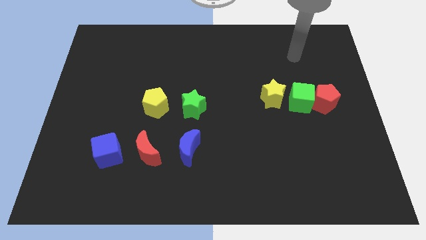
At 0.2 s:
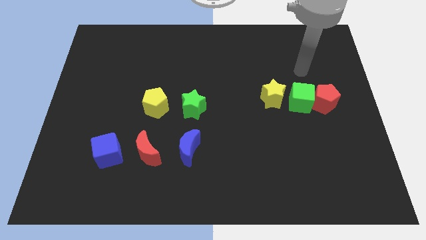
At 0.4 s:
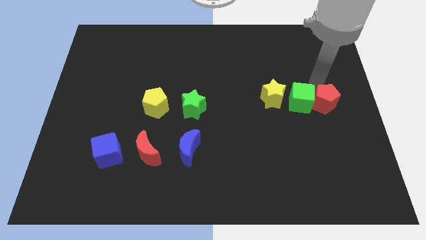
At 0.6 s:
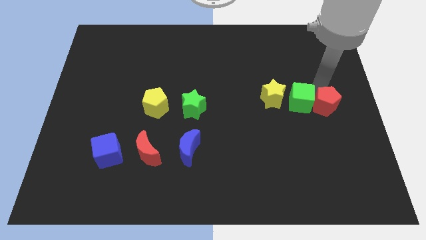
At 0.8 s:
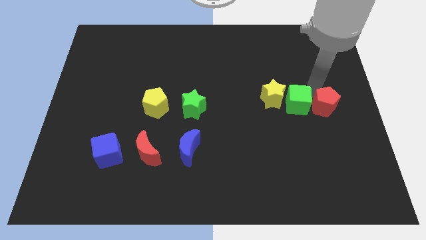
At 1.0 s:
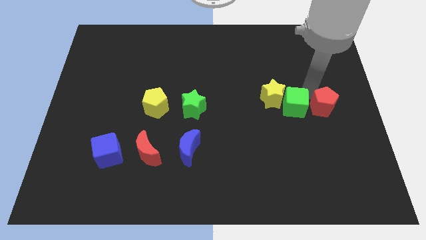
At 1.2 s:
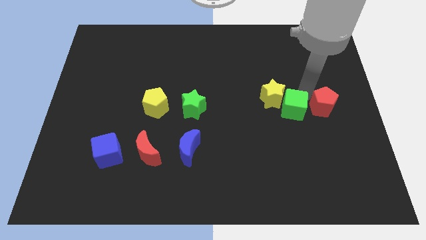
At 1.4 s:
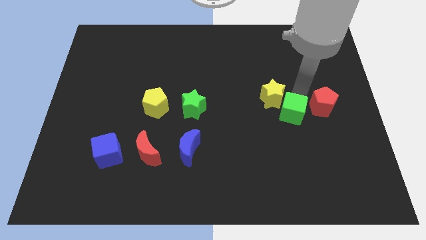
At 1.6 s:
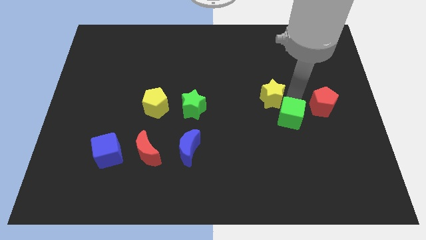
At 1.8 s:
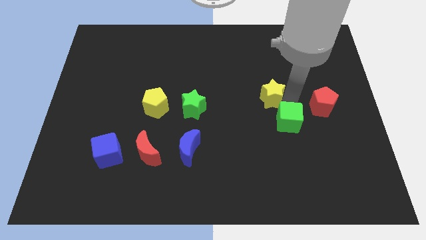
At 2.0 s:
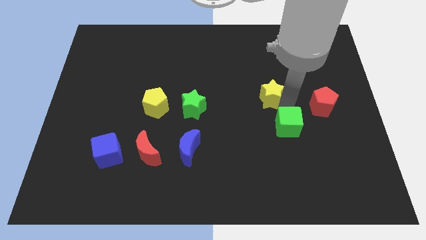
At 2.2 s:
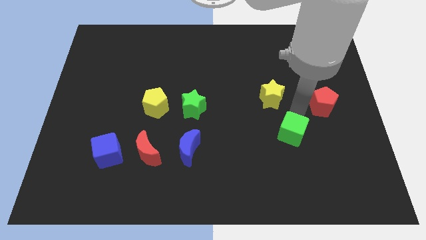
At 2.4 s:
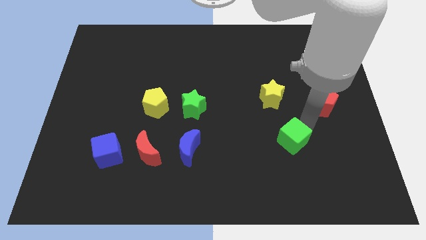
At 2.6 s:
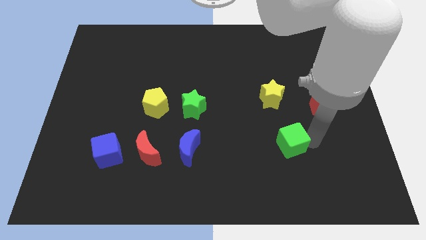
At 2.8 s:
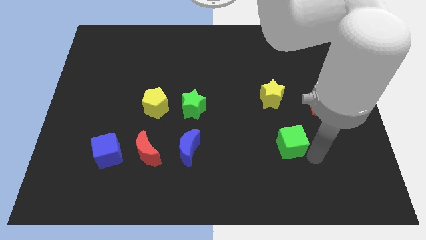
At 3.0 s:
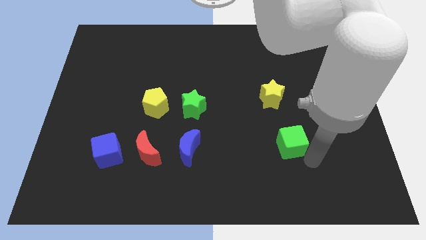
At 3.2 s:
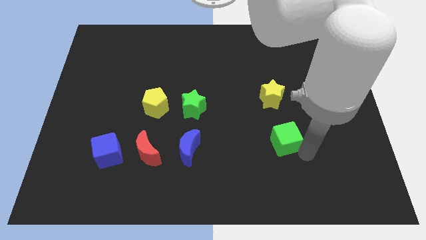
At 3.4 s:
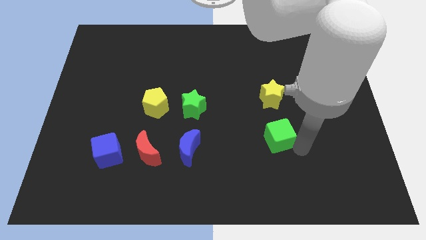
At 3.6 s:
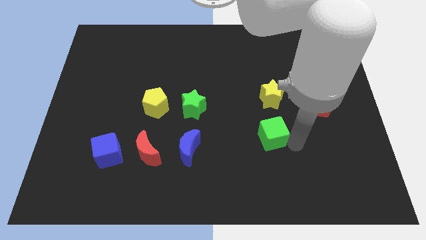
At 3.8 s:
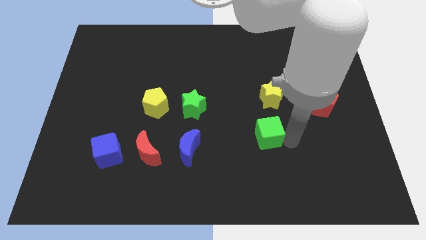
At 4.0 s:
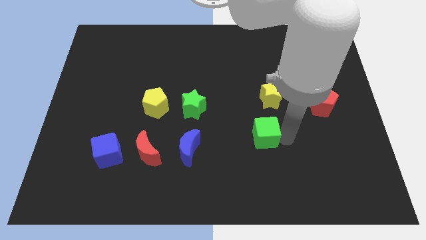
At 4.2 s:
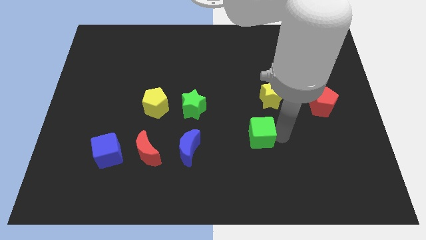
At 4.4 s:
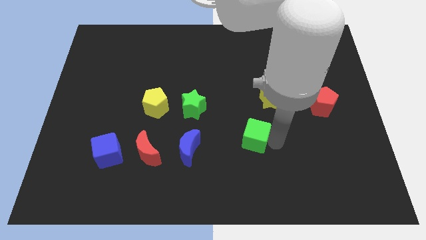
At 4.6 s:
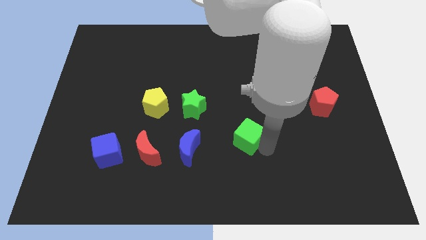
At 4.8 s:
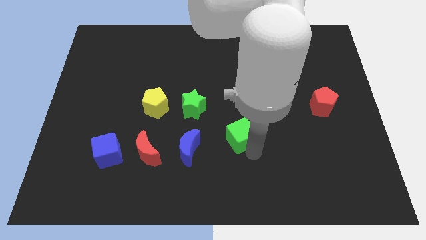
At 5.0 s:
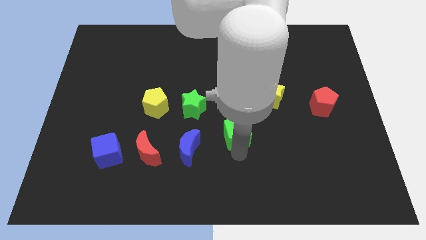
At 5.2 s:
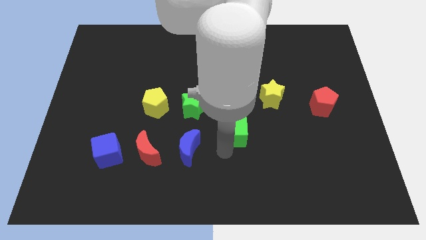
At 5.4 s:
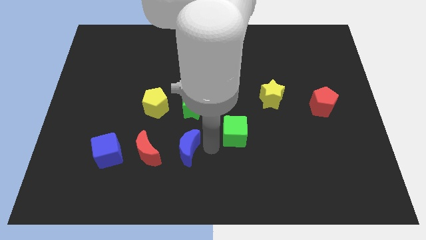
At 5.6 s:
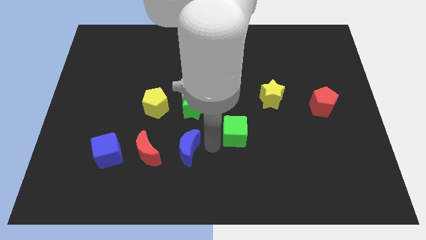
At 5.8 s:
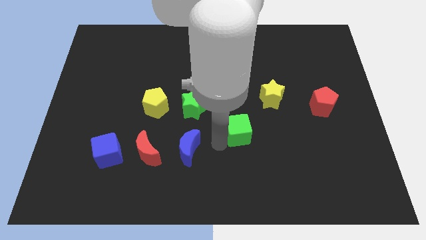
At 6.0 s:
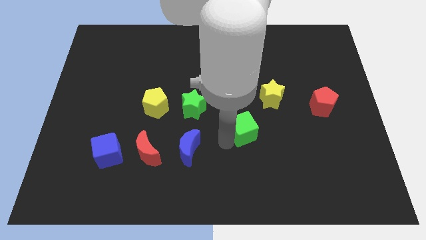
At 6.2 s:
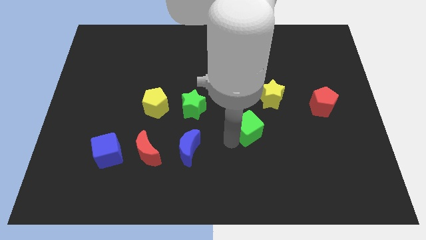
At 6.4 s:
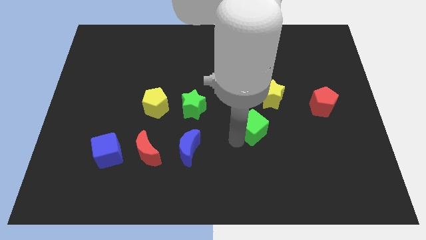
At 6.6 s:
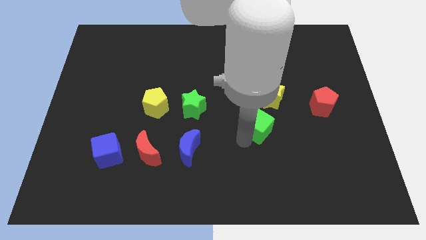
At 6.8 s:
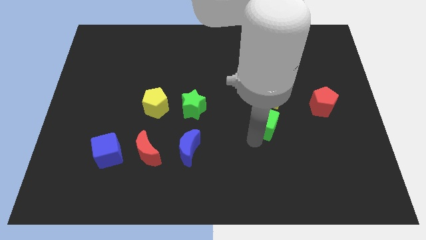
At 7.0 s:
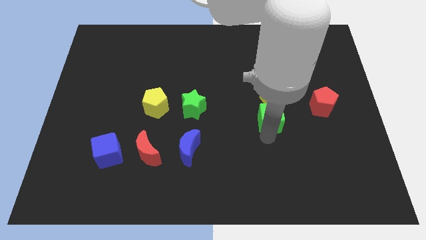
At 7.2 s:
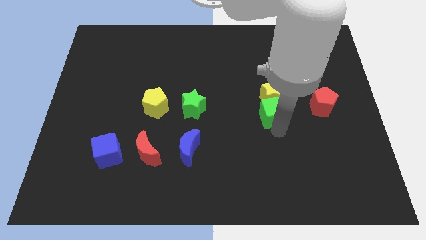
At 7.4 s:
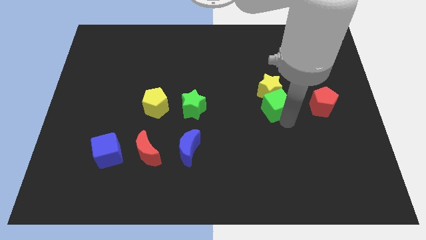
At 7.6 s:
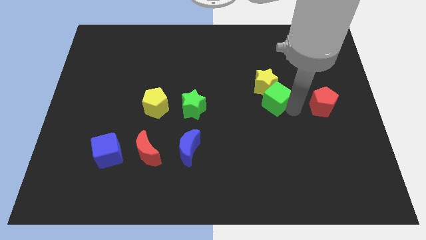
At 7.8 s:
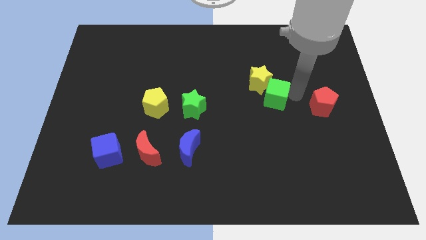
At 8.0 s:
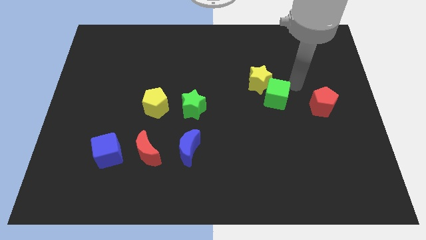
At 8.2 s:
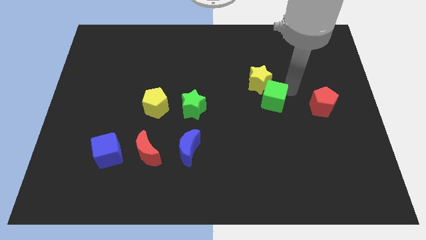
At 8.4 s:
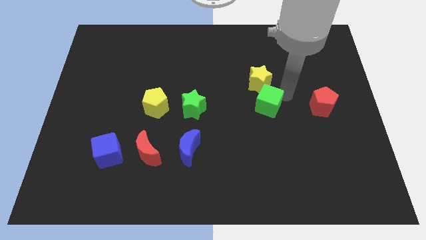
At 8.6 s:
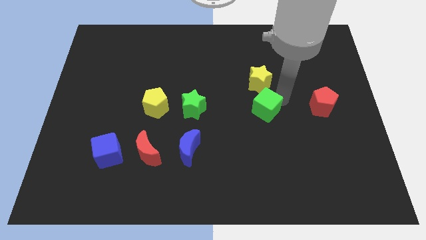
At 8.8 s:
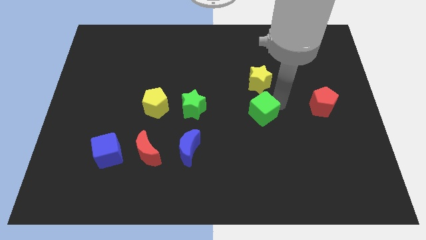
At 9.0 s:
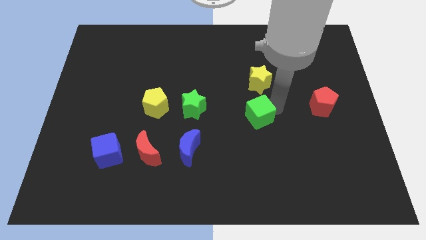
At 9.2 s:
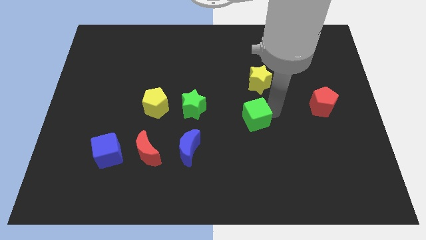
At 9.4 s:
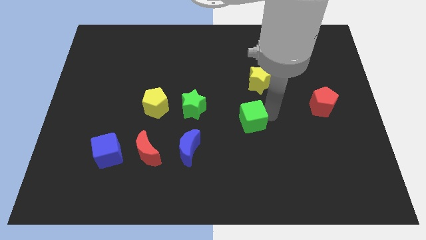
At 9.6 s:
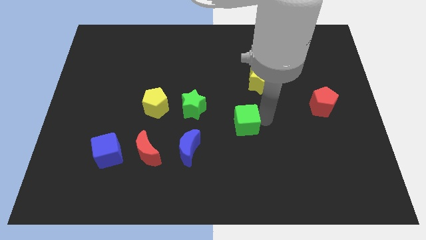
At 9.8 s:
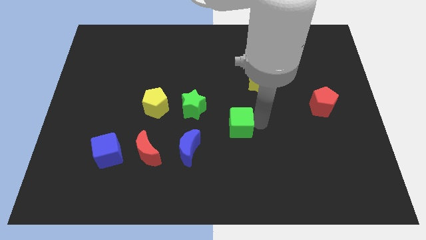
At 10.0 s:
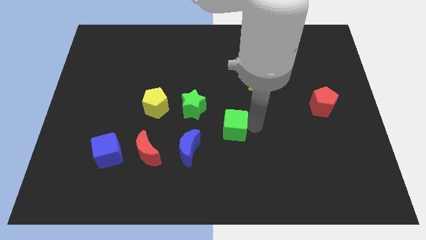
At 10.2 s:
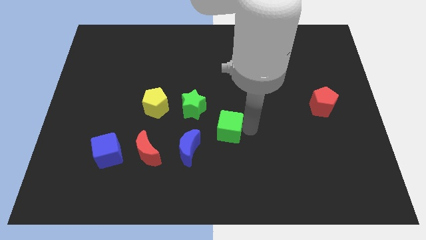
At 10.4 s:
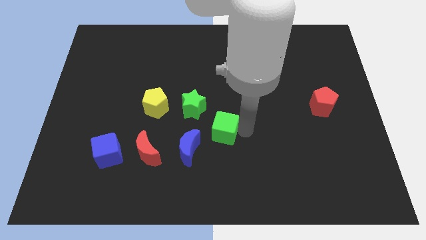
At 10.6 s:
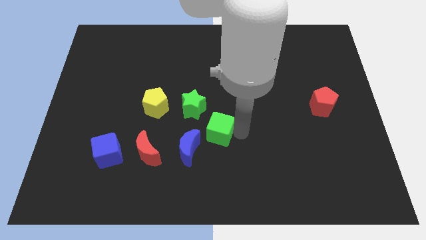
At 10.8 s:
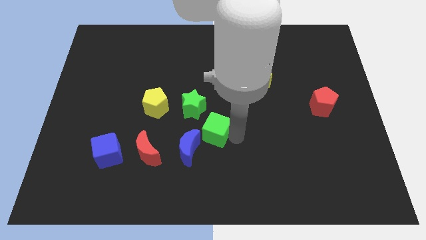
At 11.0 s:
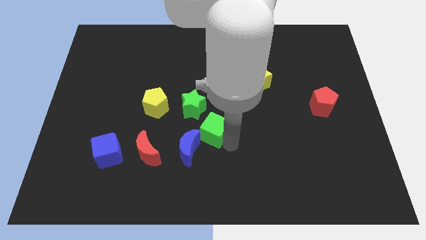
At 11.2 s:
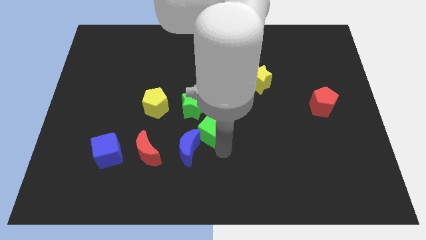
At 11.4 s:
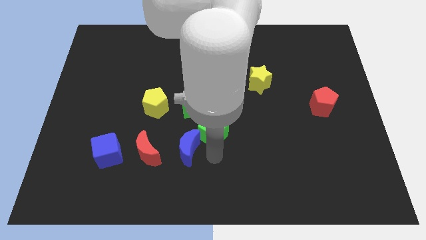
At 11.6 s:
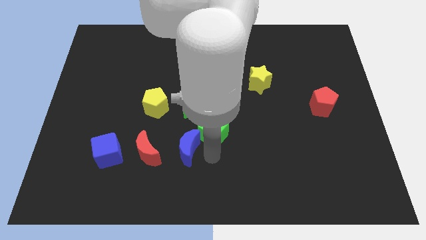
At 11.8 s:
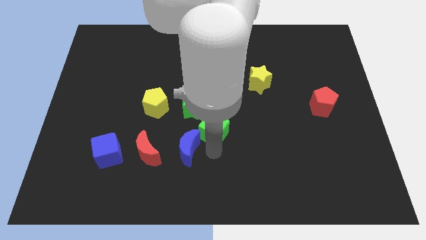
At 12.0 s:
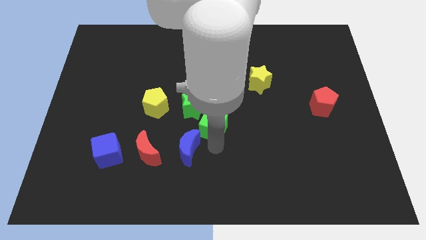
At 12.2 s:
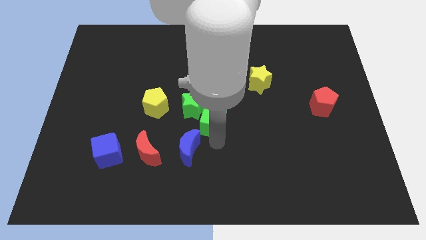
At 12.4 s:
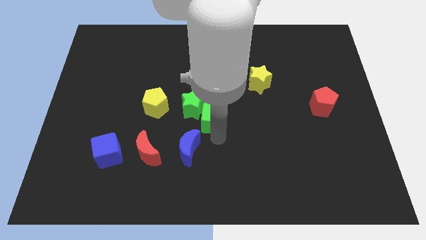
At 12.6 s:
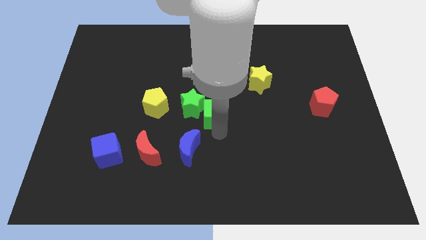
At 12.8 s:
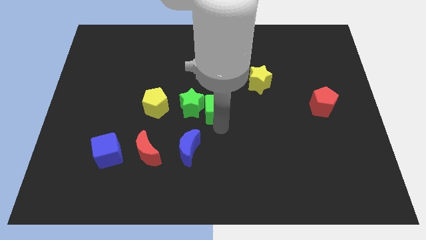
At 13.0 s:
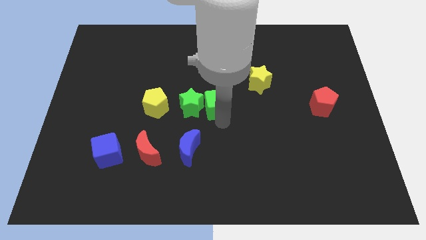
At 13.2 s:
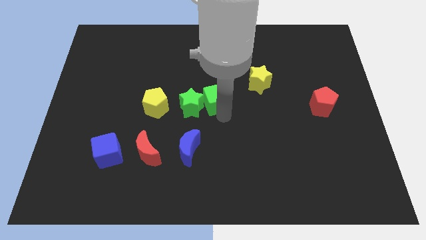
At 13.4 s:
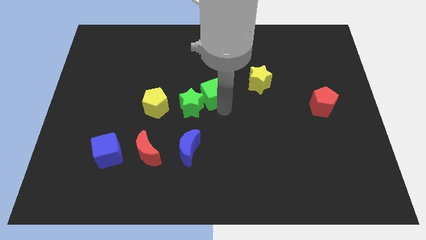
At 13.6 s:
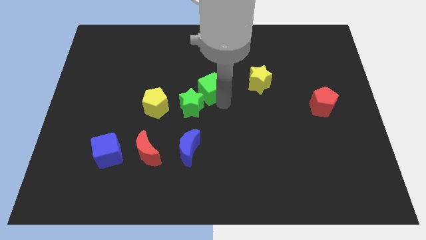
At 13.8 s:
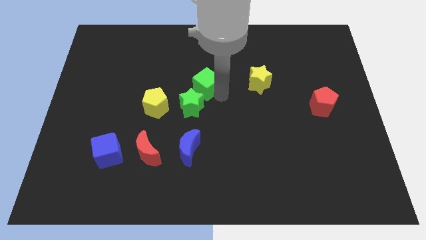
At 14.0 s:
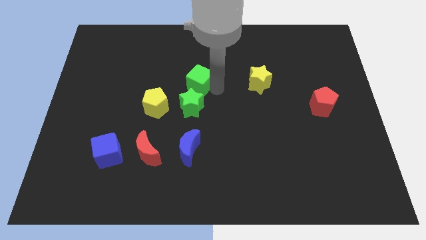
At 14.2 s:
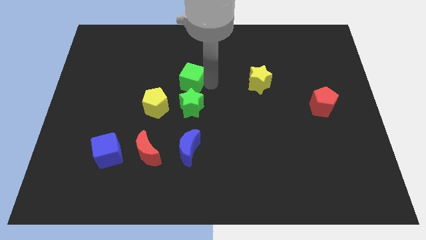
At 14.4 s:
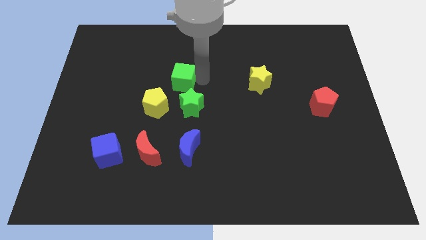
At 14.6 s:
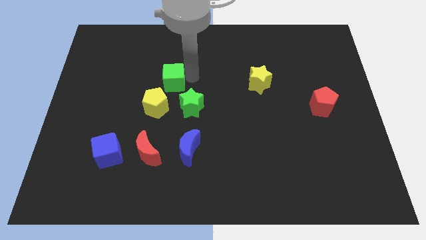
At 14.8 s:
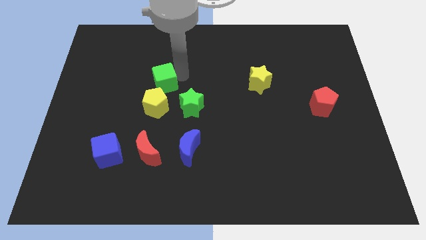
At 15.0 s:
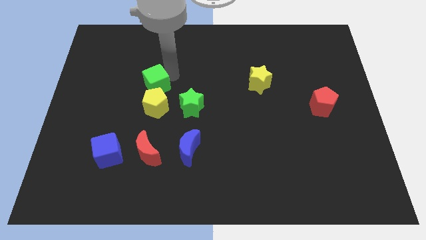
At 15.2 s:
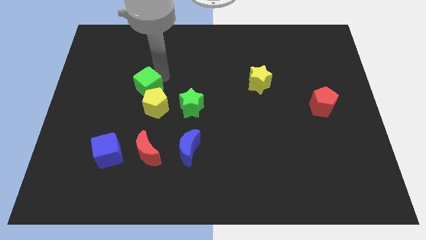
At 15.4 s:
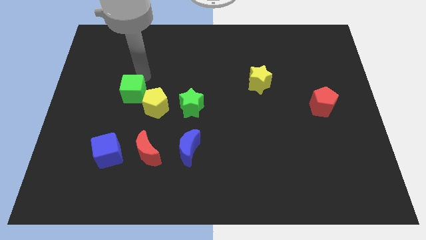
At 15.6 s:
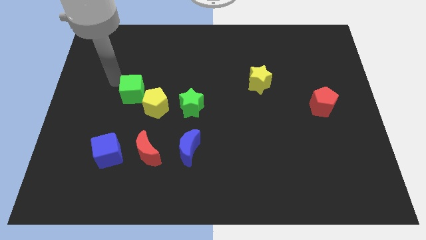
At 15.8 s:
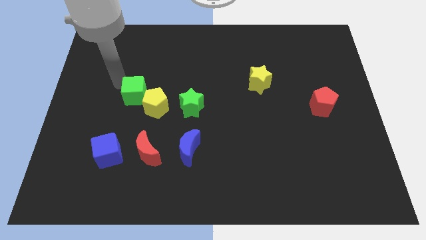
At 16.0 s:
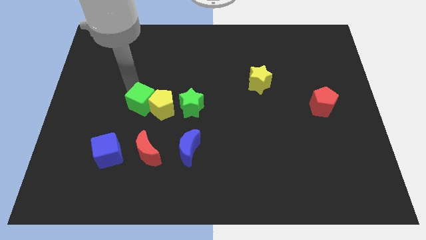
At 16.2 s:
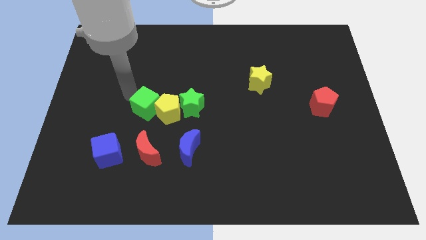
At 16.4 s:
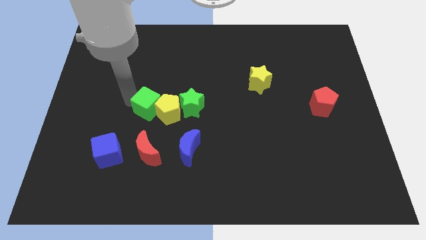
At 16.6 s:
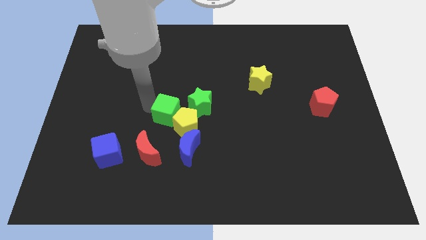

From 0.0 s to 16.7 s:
push the green cube to the top left of the blue moon
